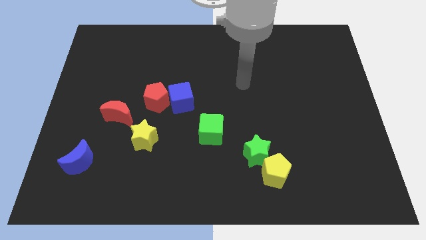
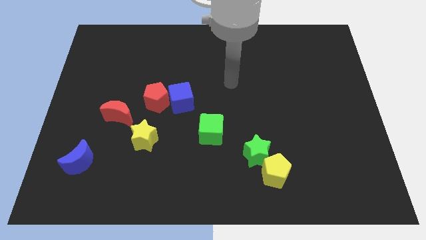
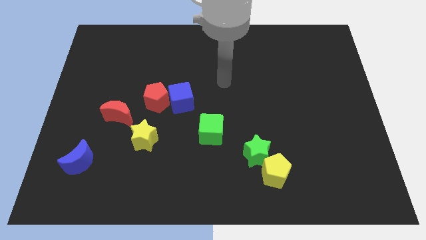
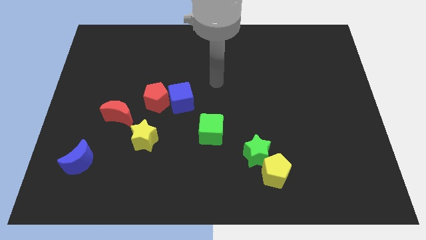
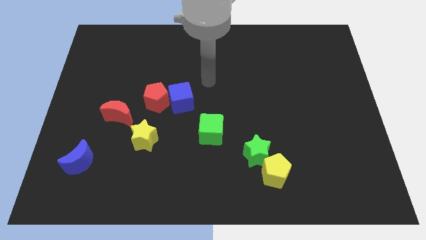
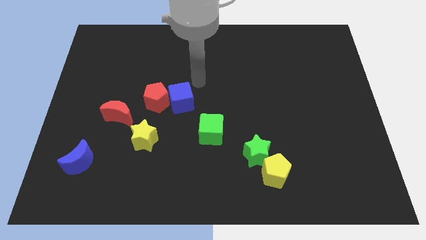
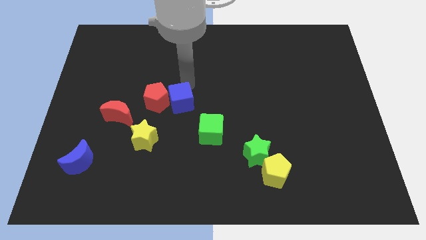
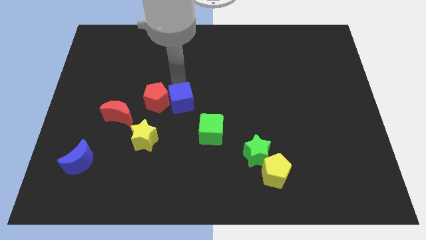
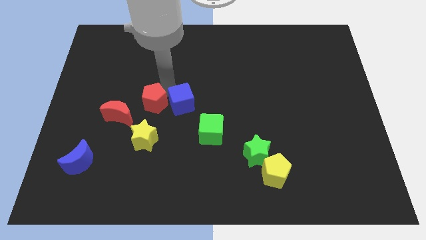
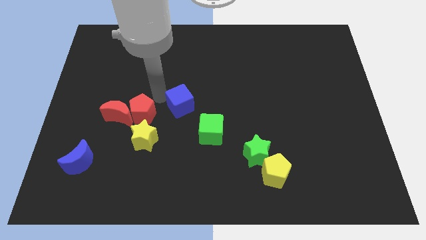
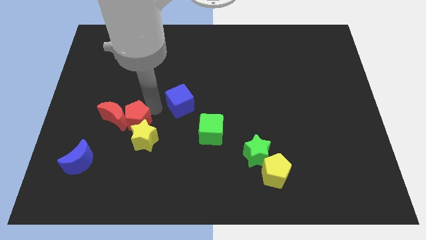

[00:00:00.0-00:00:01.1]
move the blue cube away from the red pentagon

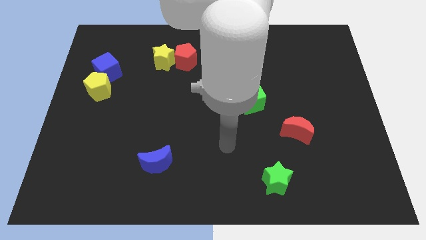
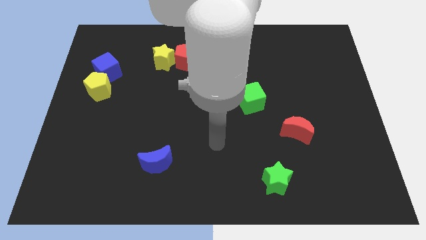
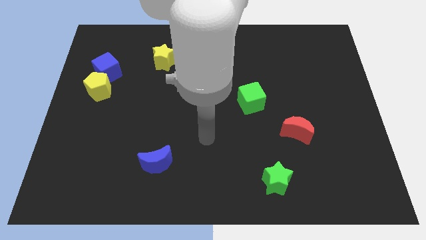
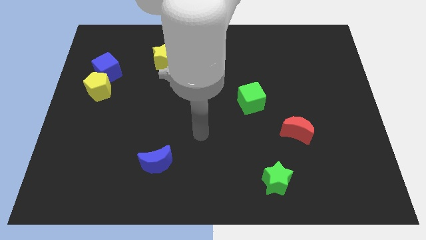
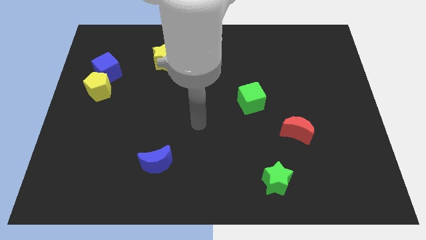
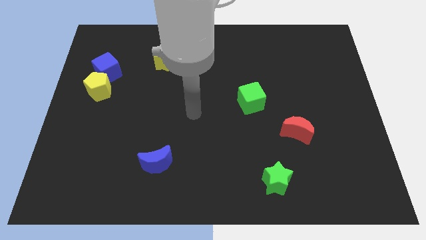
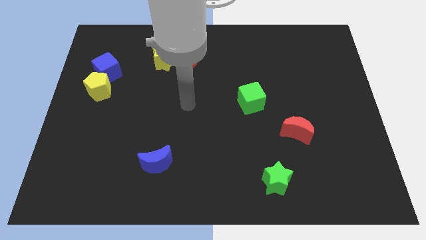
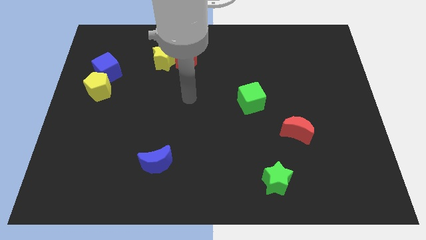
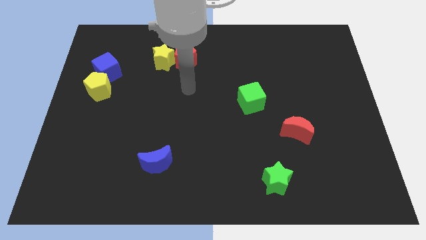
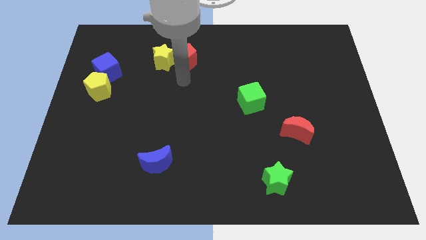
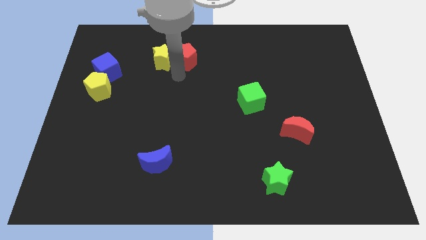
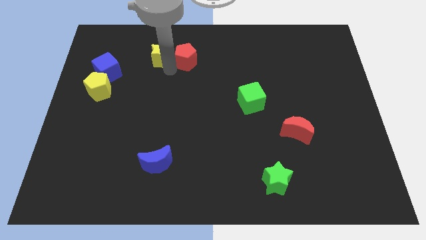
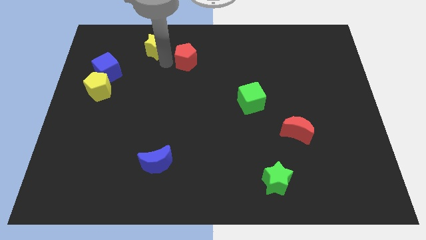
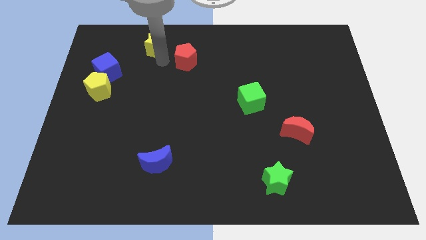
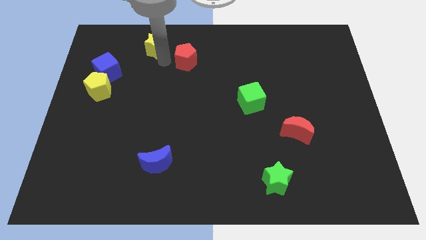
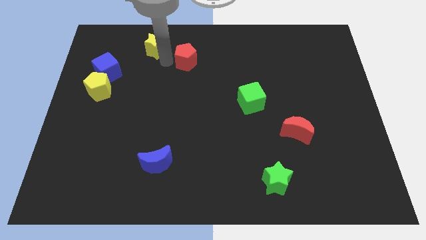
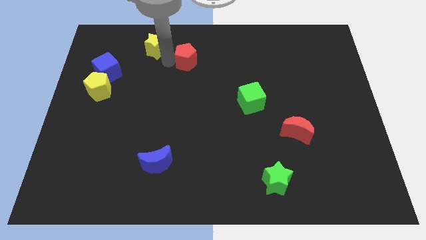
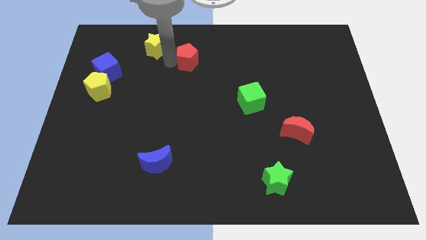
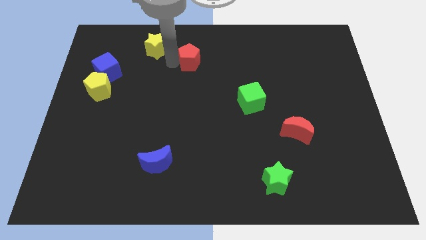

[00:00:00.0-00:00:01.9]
move the red pentagon away from the yellow star

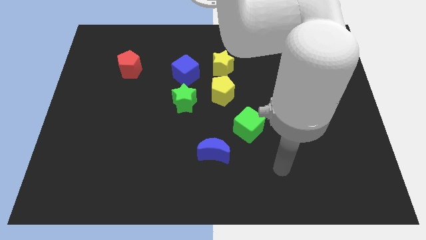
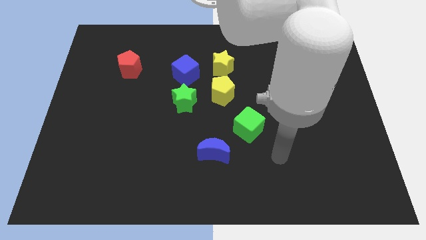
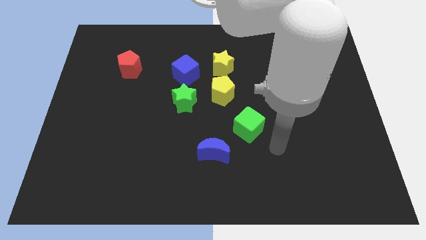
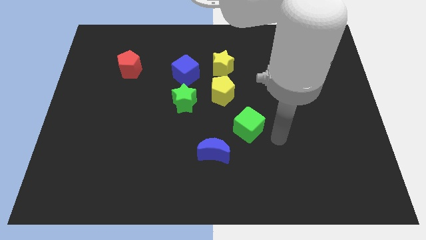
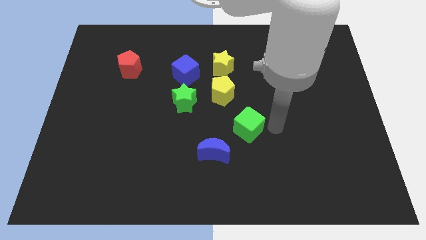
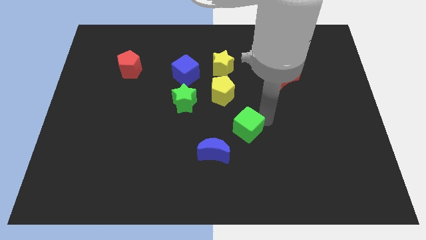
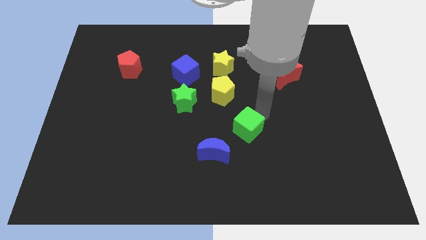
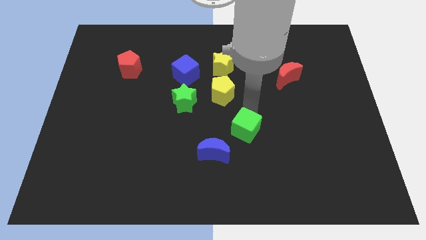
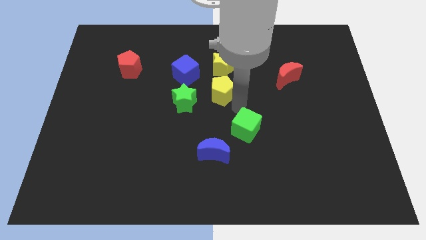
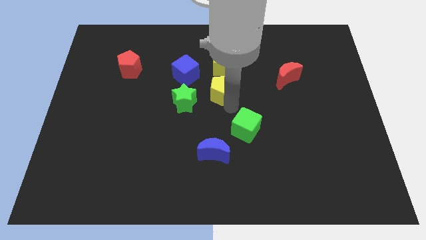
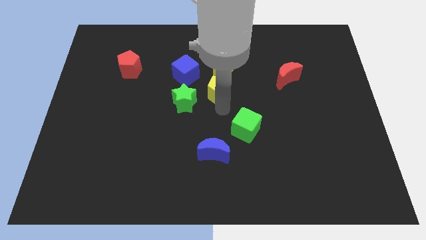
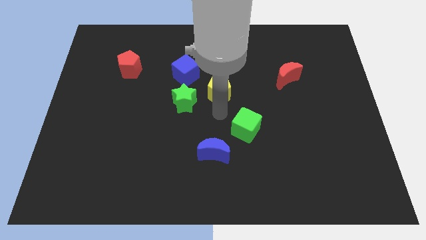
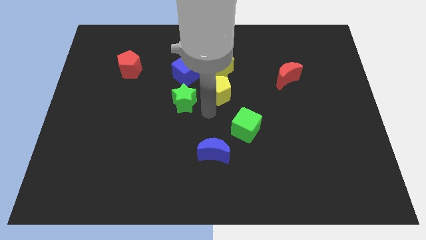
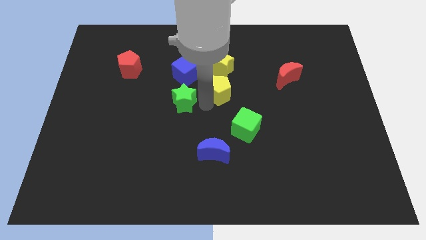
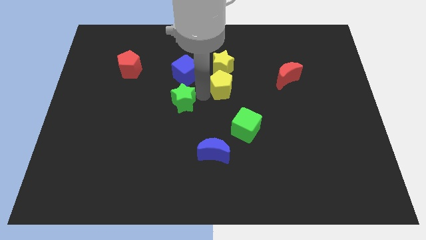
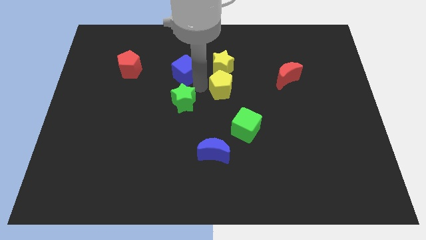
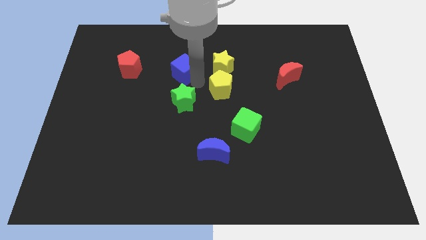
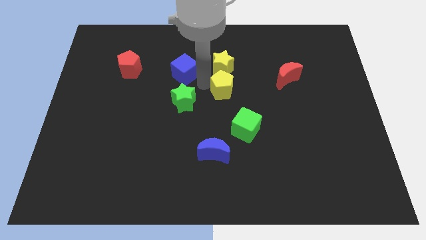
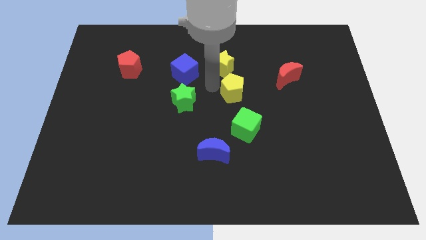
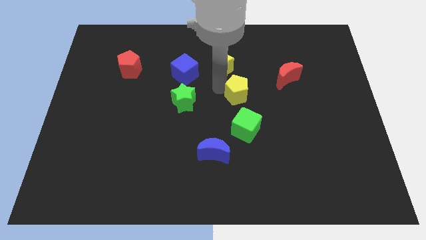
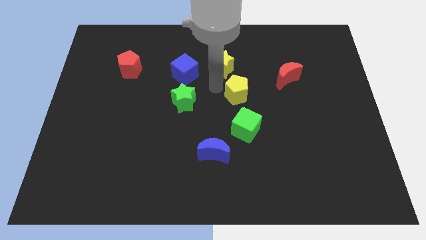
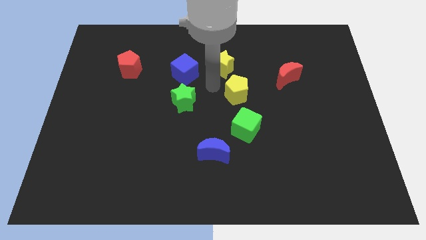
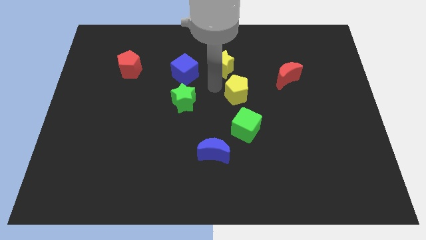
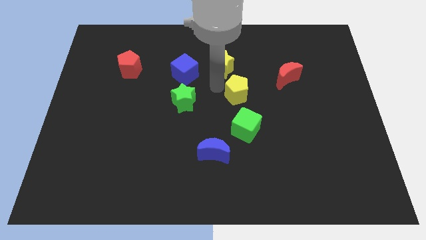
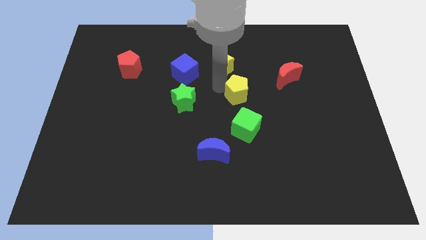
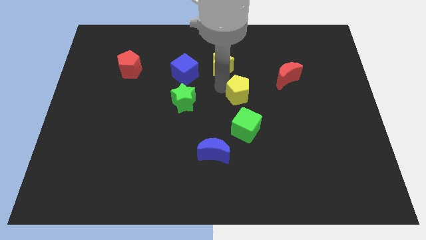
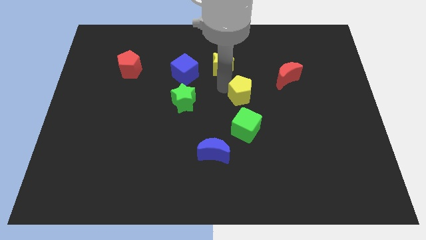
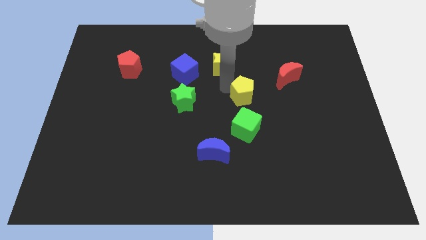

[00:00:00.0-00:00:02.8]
pull the yellow pentagon apart from the yellow star and green star

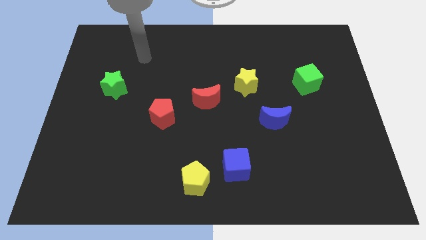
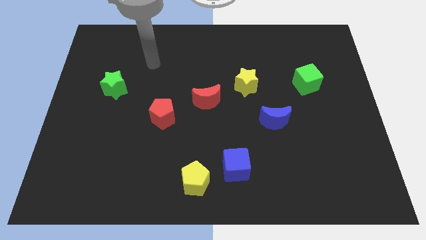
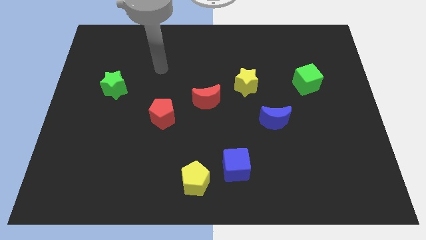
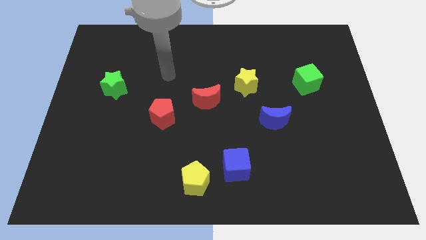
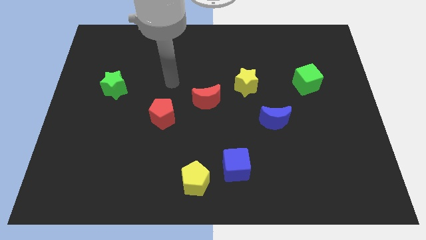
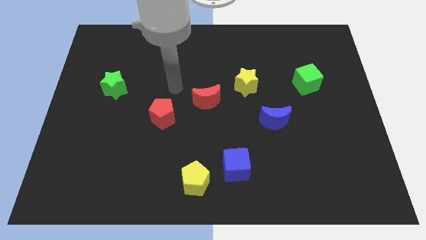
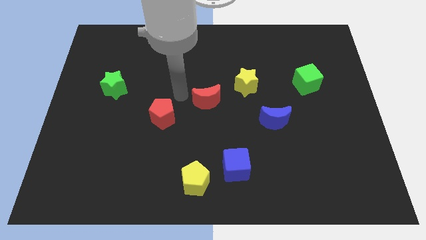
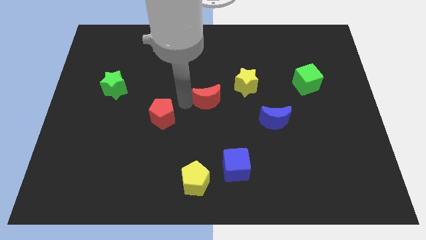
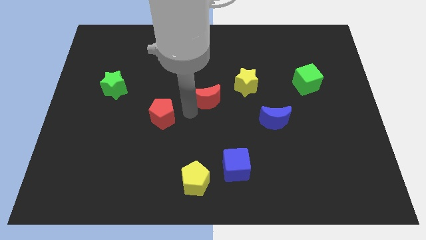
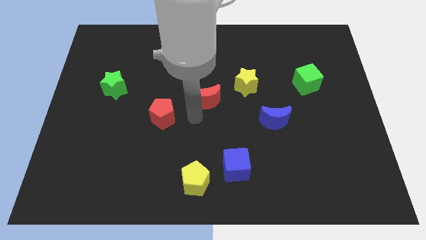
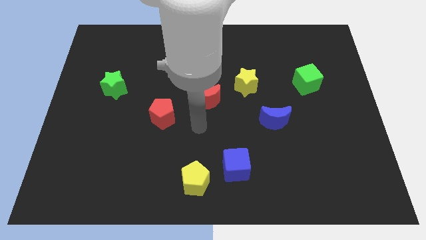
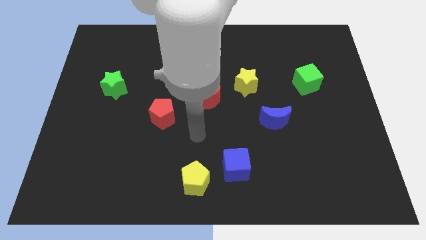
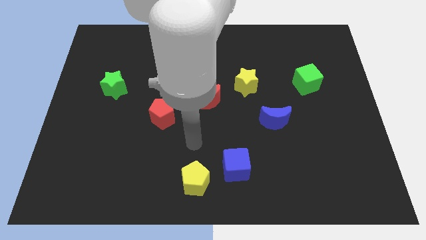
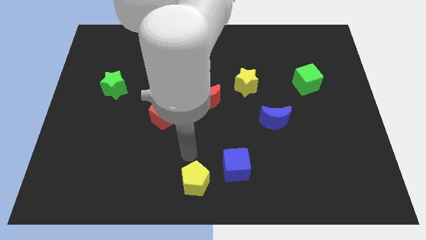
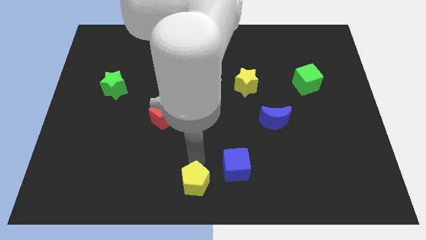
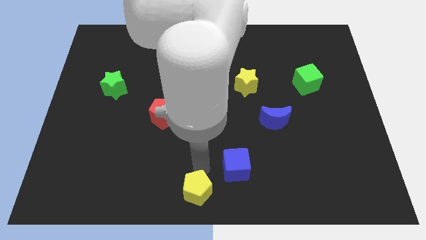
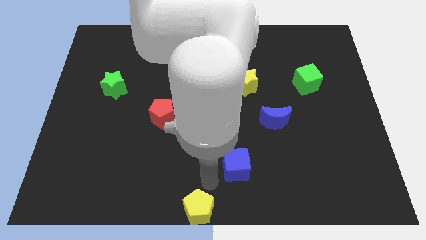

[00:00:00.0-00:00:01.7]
move the blue cube away from the yellow pentagon

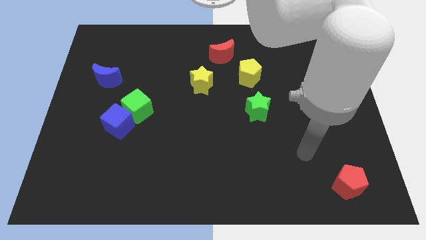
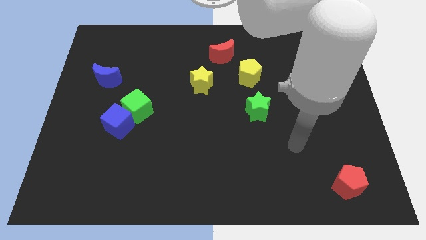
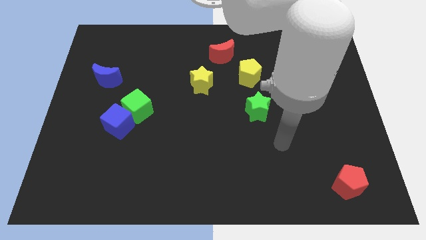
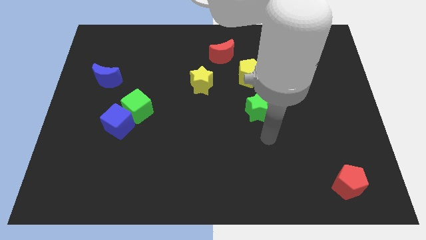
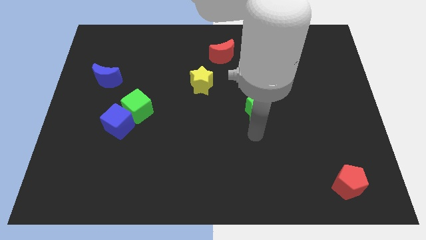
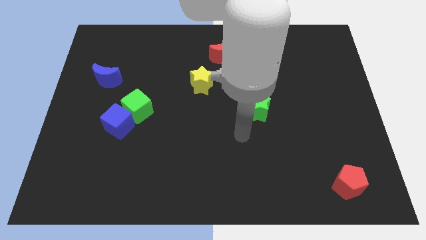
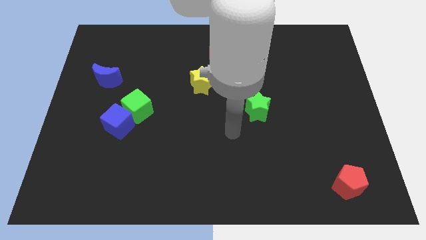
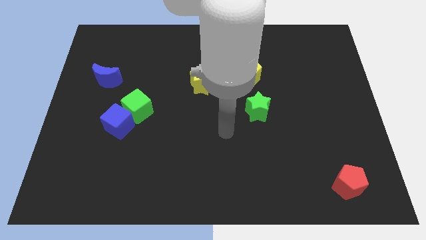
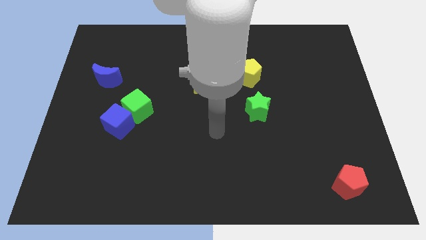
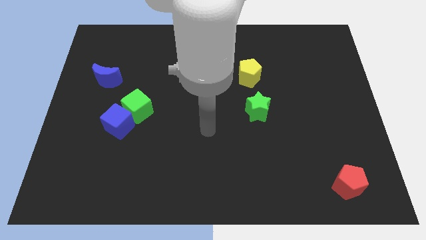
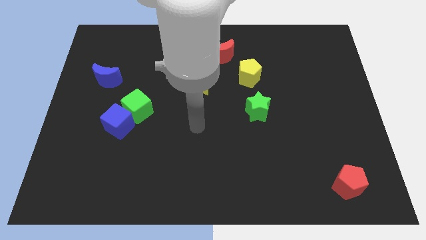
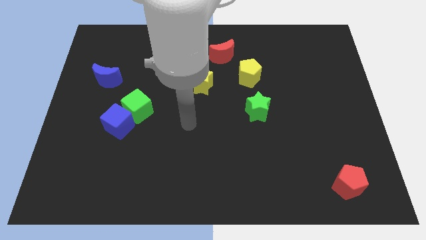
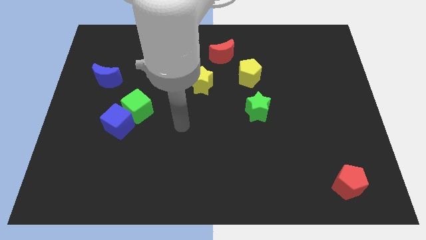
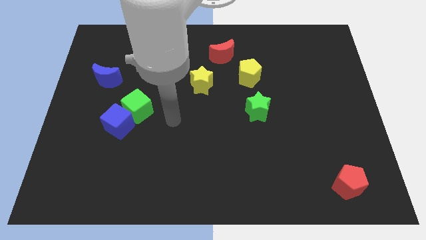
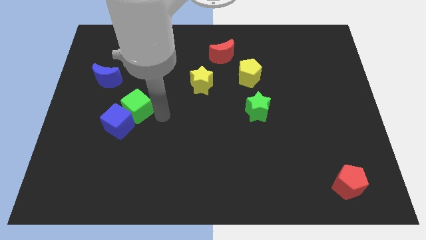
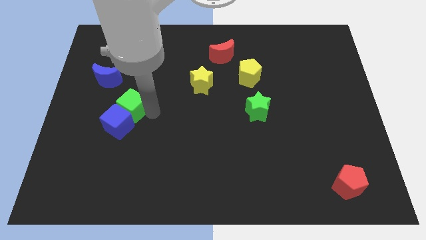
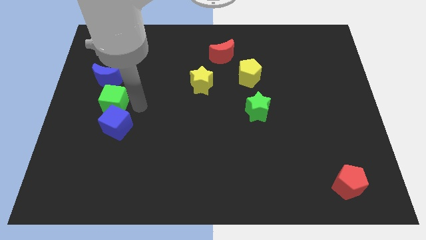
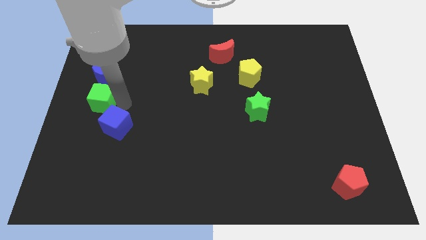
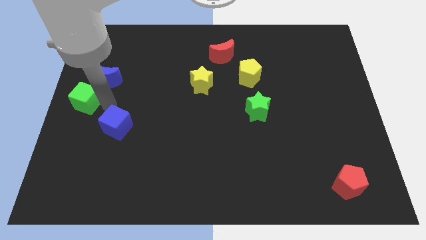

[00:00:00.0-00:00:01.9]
move the blue cube away from the green cube
